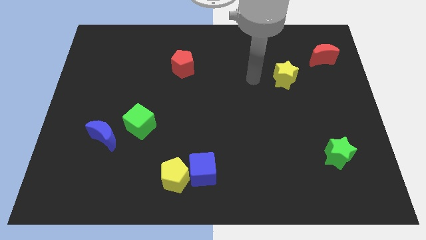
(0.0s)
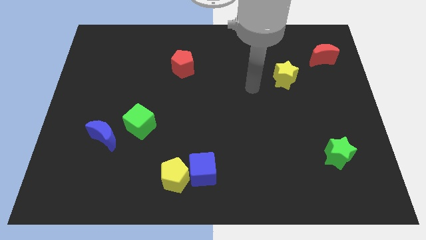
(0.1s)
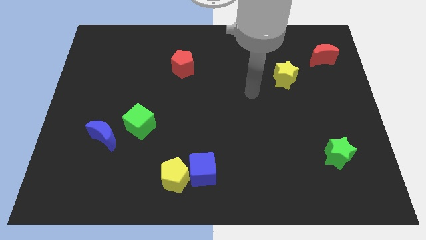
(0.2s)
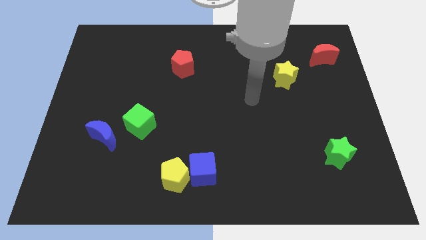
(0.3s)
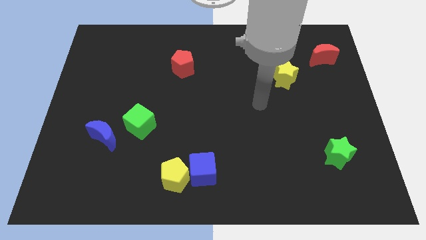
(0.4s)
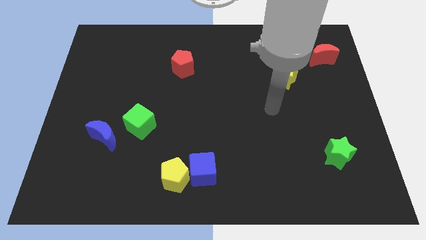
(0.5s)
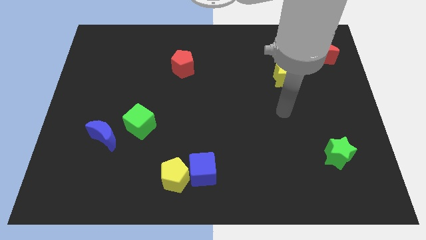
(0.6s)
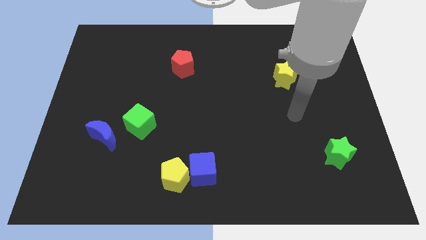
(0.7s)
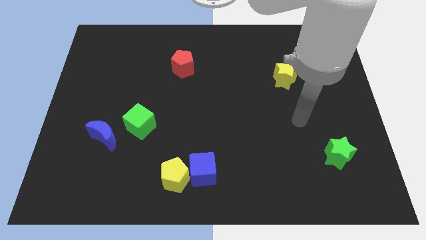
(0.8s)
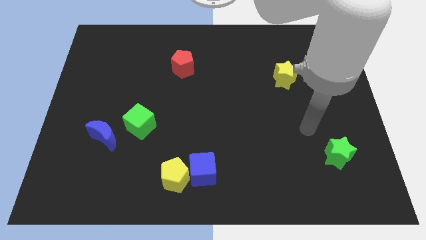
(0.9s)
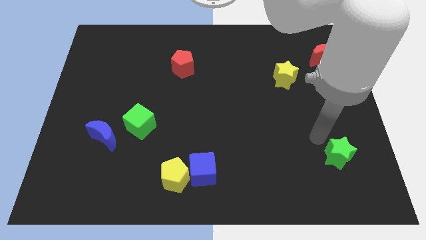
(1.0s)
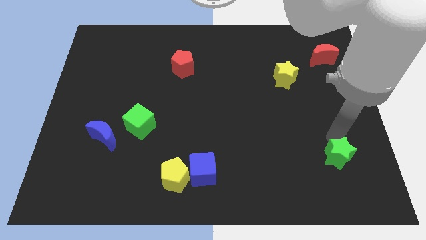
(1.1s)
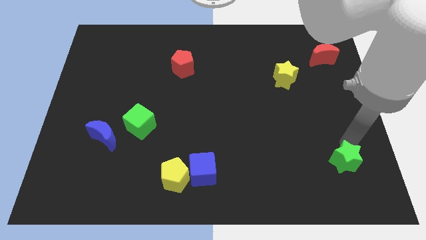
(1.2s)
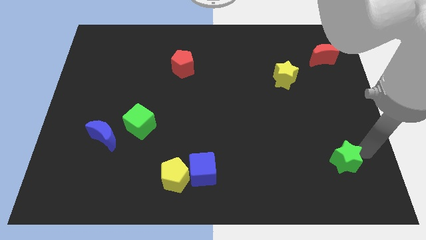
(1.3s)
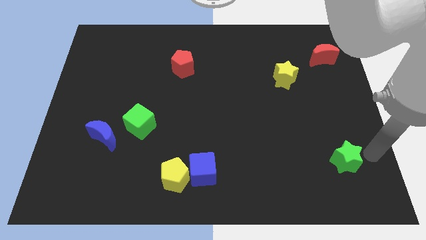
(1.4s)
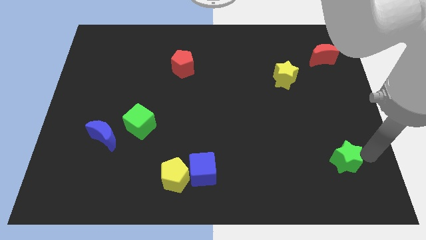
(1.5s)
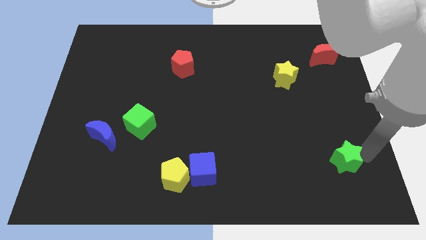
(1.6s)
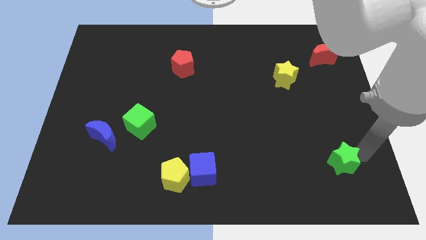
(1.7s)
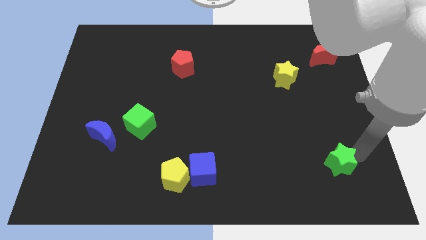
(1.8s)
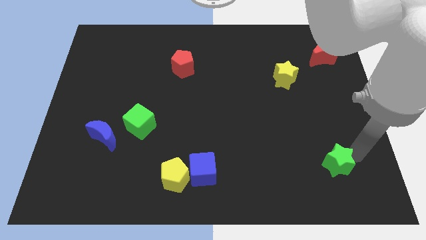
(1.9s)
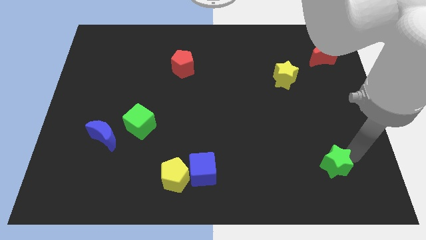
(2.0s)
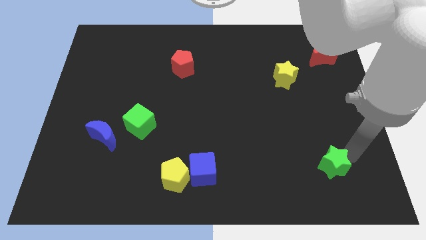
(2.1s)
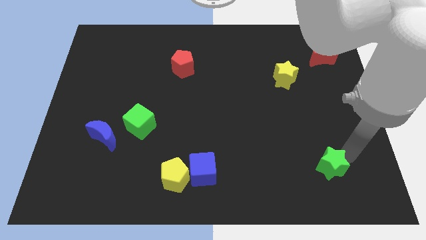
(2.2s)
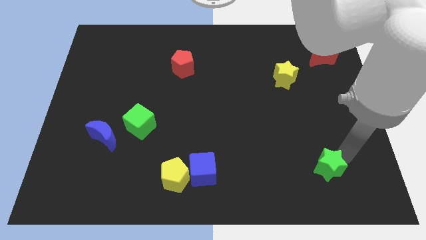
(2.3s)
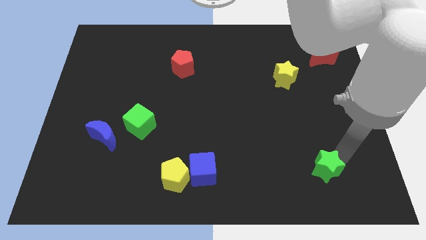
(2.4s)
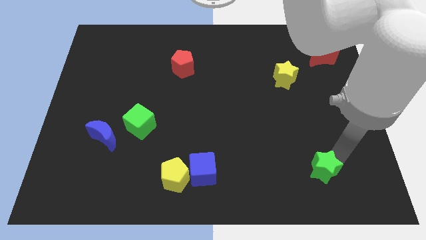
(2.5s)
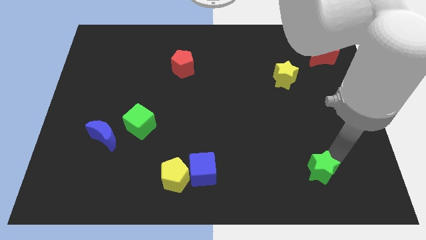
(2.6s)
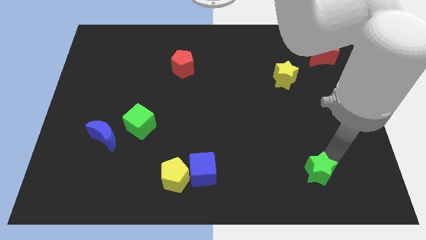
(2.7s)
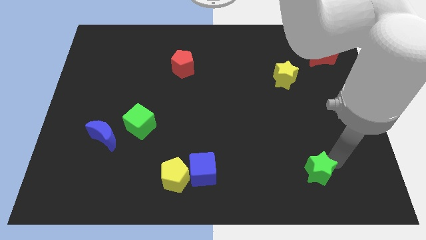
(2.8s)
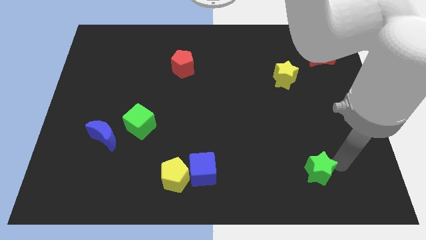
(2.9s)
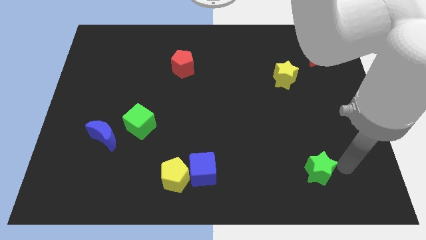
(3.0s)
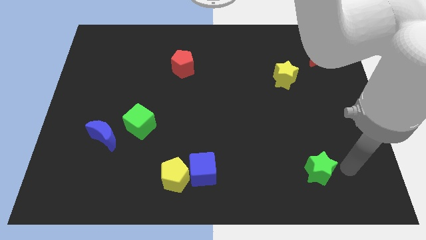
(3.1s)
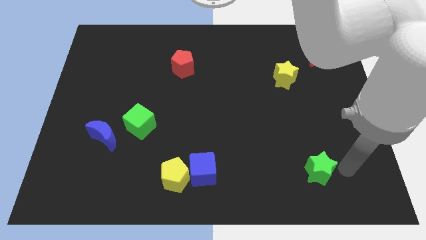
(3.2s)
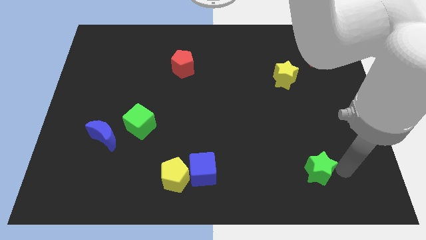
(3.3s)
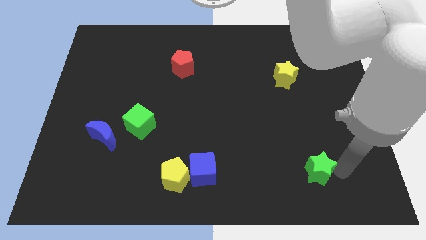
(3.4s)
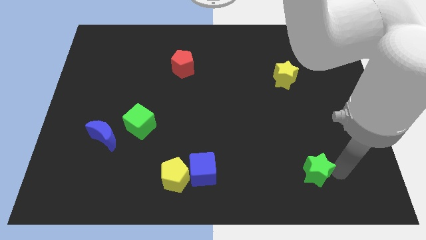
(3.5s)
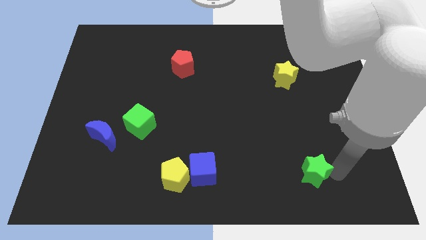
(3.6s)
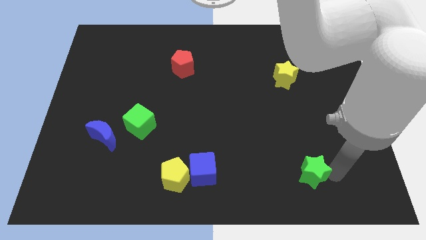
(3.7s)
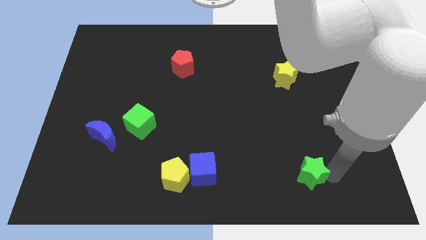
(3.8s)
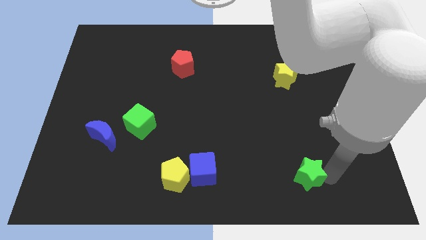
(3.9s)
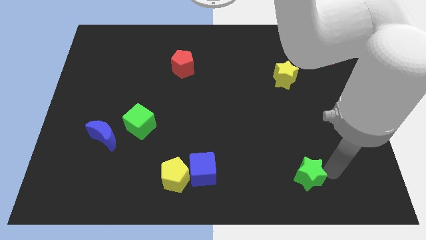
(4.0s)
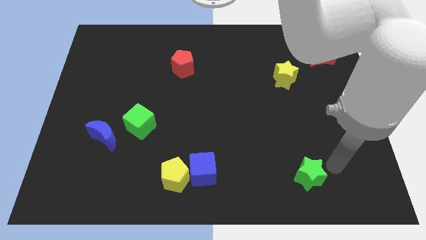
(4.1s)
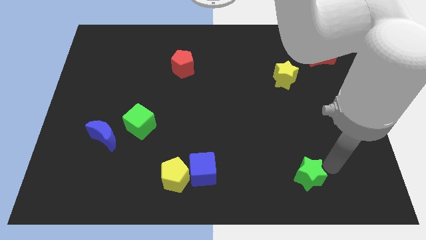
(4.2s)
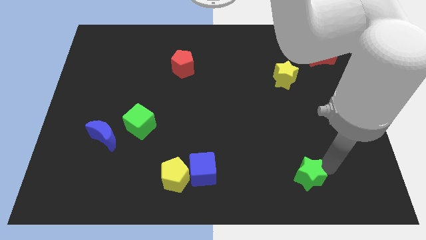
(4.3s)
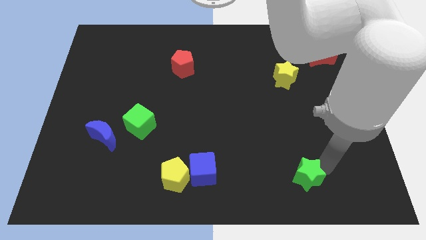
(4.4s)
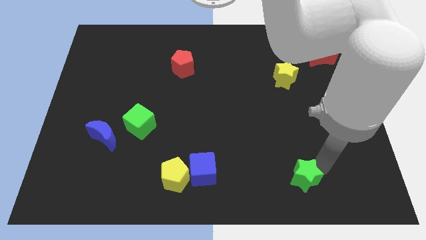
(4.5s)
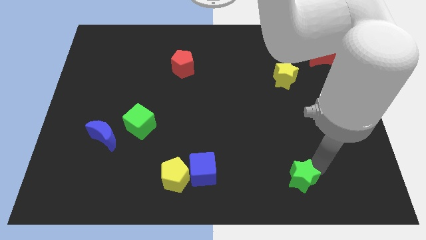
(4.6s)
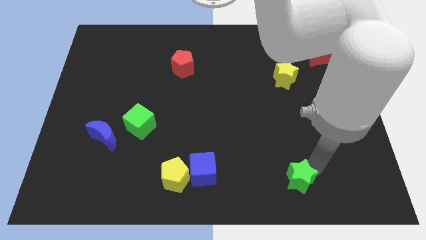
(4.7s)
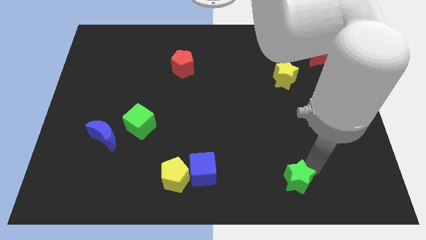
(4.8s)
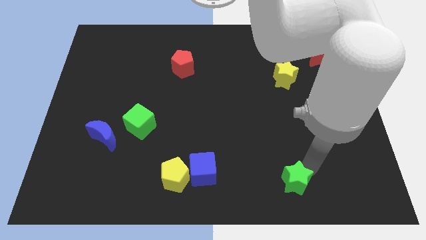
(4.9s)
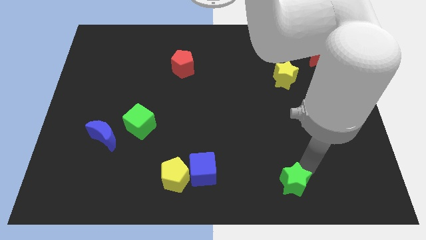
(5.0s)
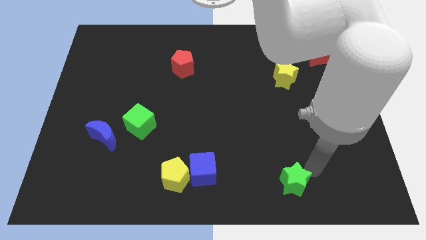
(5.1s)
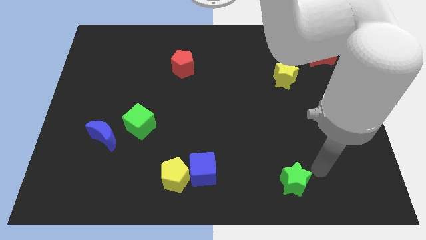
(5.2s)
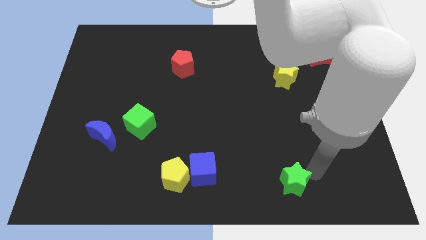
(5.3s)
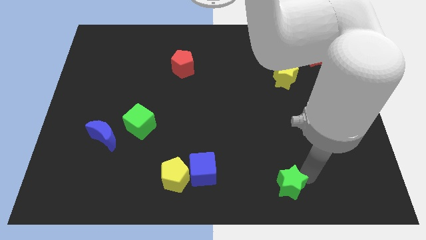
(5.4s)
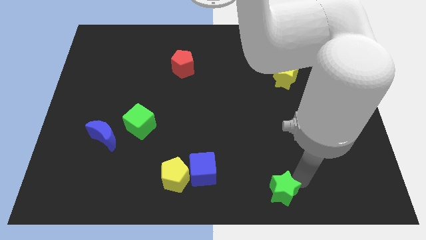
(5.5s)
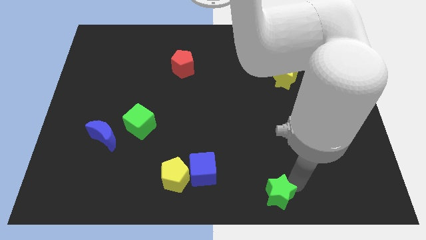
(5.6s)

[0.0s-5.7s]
slide the green star to the bottom
